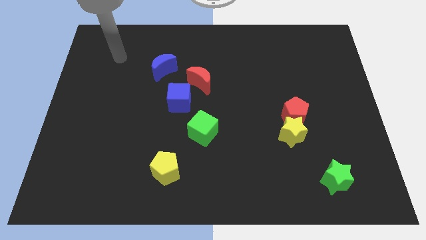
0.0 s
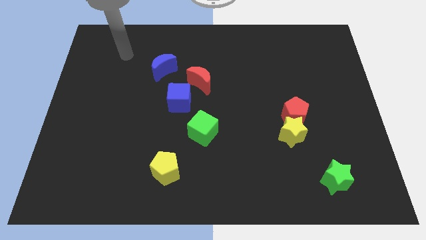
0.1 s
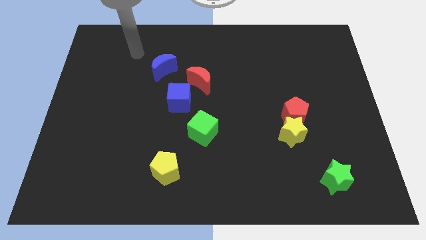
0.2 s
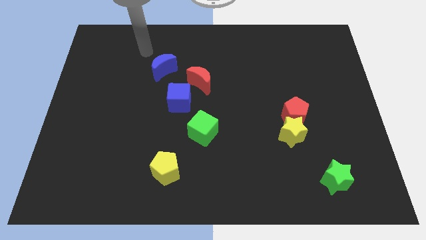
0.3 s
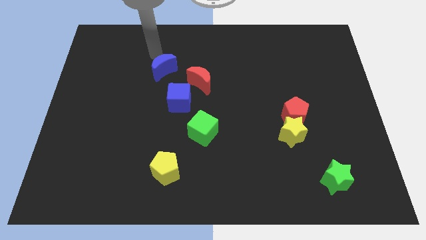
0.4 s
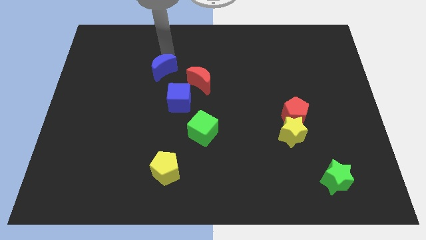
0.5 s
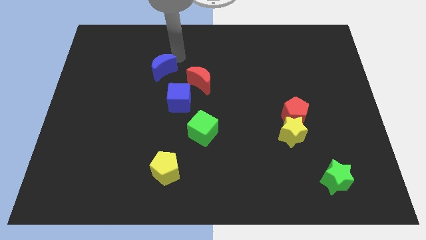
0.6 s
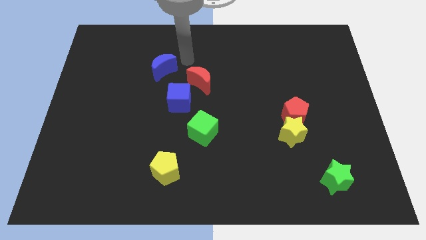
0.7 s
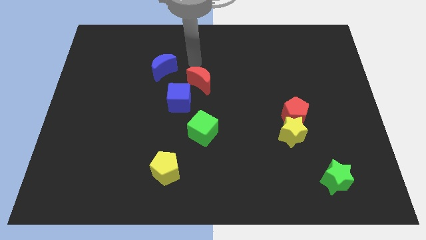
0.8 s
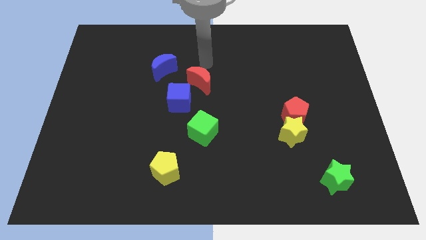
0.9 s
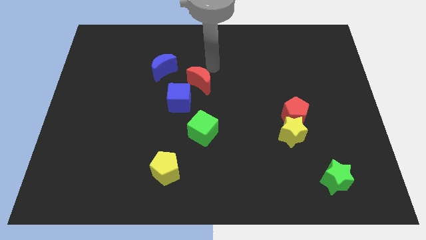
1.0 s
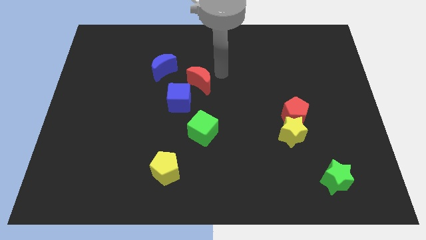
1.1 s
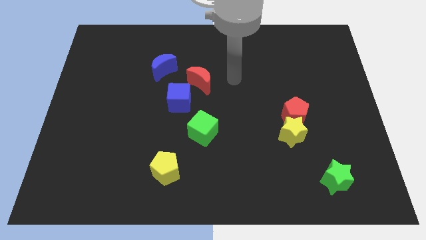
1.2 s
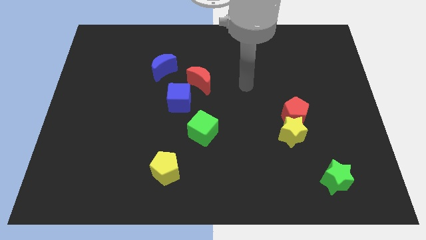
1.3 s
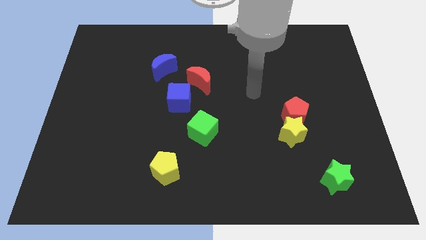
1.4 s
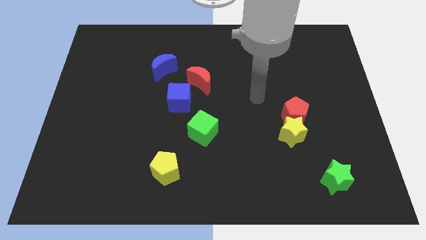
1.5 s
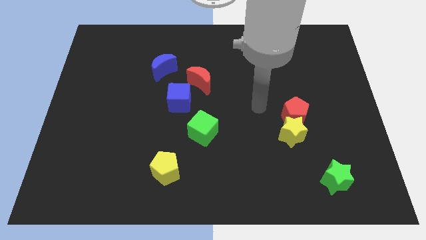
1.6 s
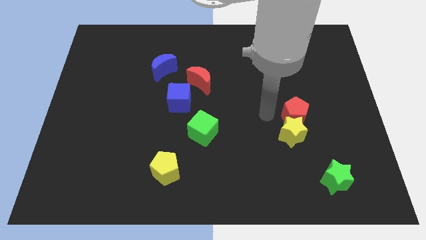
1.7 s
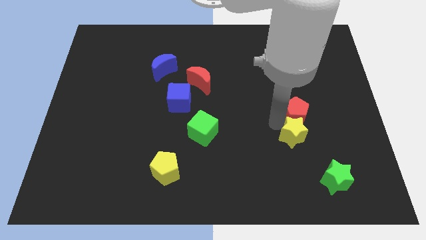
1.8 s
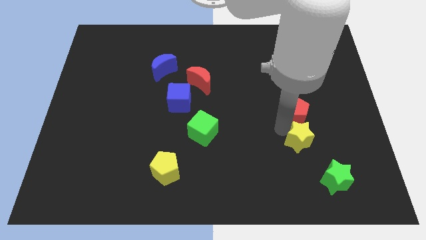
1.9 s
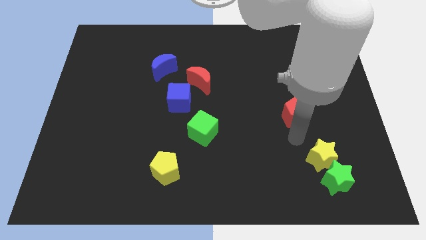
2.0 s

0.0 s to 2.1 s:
move the red pentagon away from the yellow star

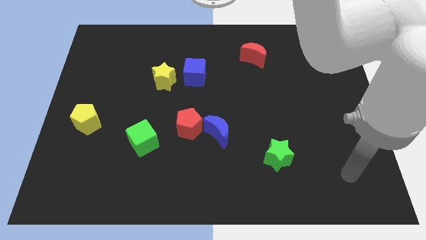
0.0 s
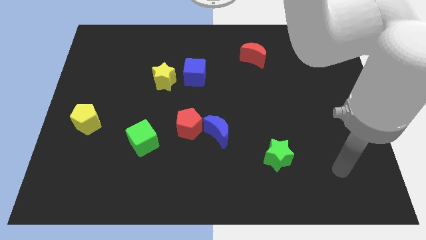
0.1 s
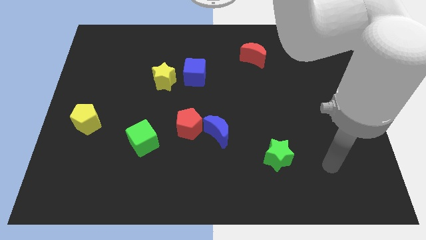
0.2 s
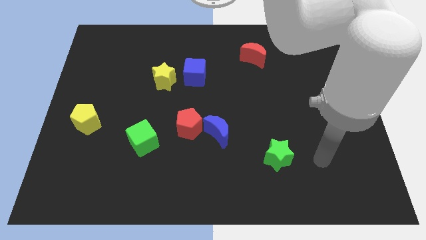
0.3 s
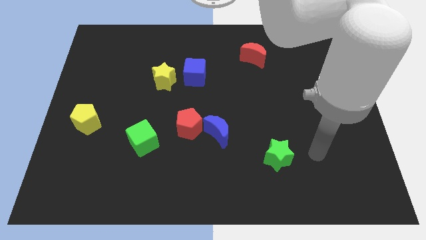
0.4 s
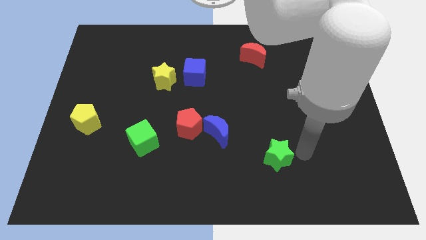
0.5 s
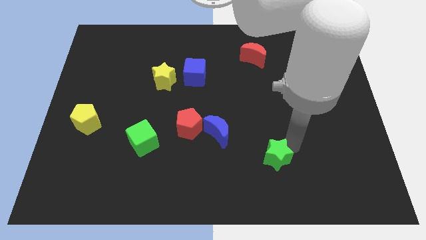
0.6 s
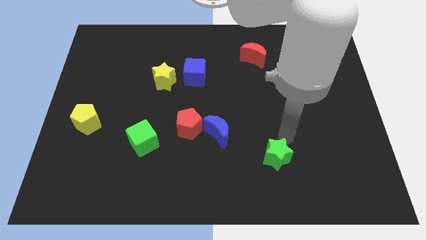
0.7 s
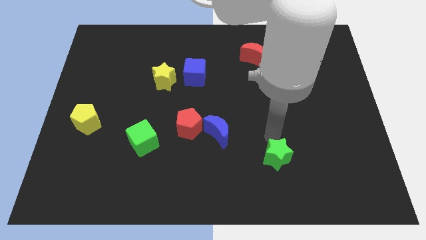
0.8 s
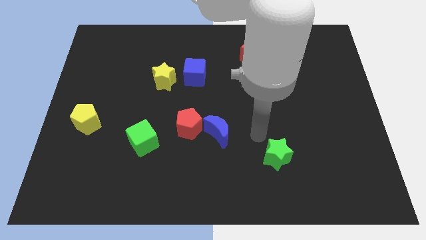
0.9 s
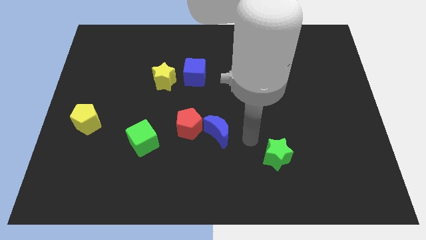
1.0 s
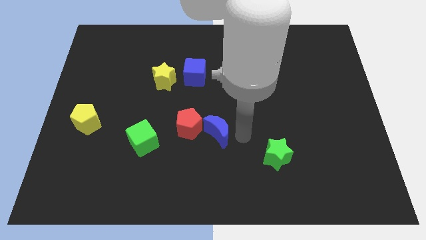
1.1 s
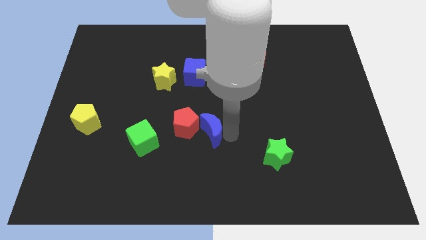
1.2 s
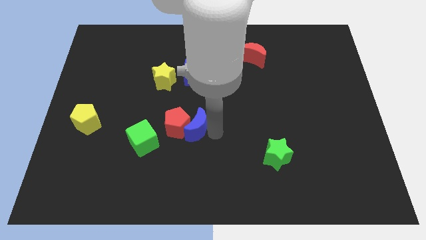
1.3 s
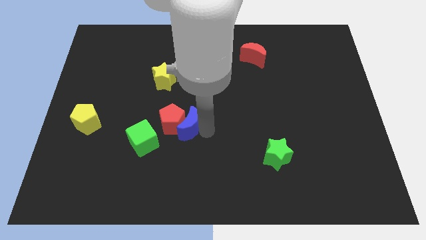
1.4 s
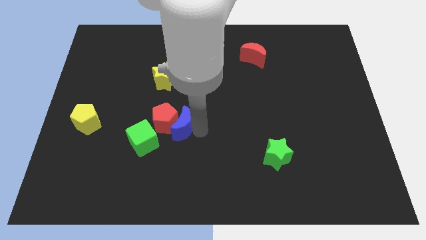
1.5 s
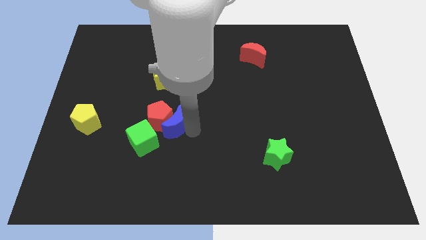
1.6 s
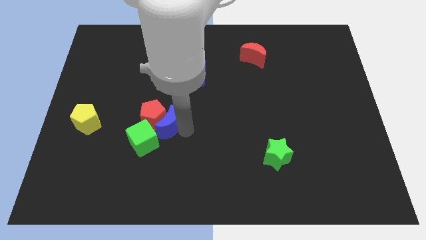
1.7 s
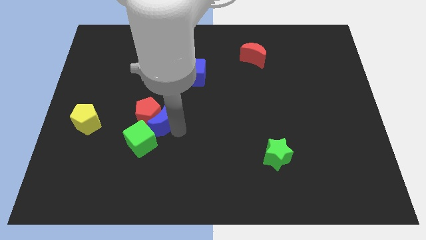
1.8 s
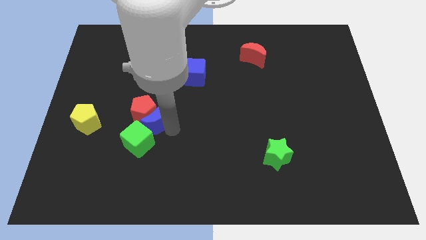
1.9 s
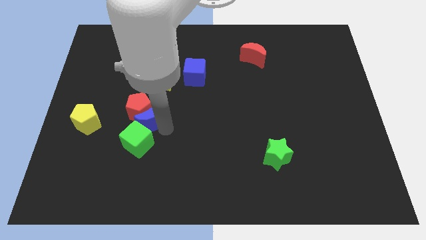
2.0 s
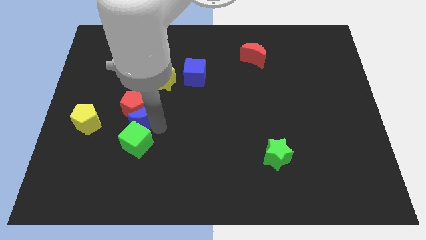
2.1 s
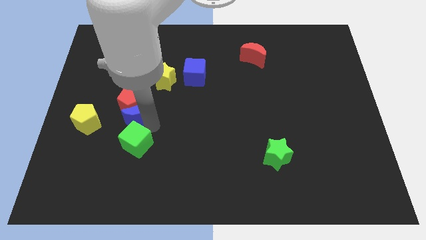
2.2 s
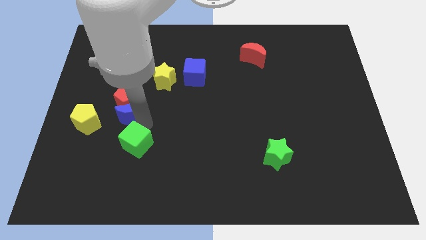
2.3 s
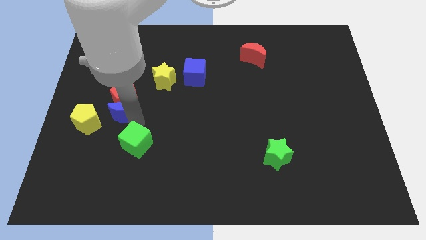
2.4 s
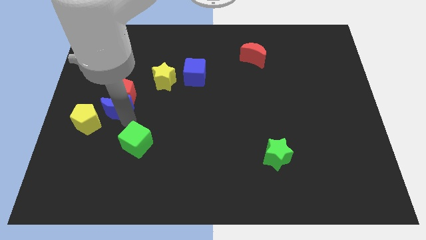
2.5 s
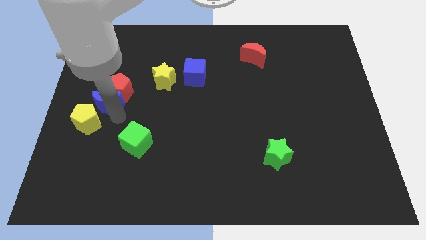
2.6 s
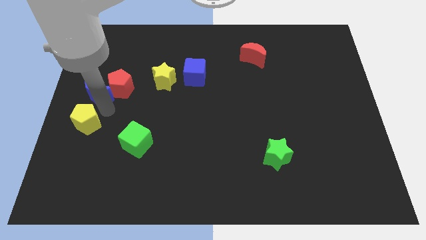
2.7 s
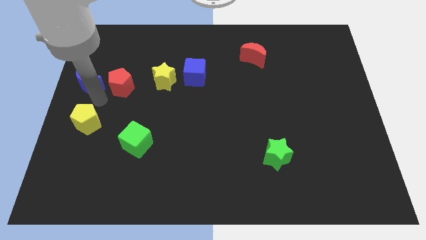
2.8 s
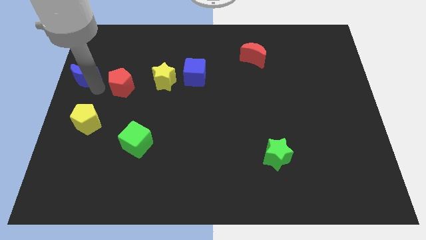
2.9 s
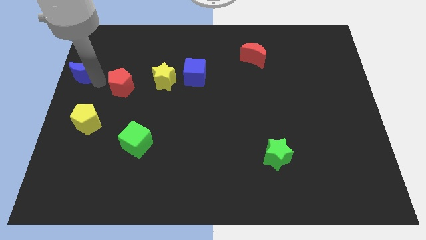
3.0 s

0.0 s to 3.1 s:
pull the red pentagon apart from the blue moon

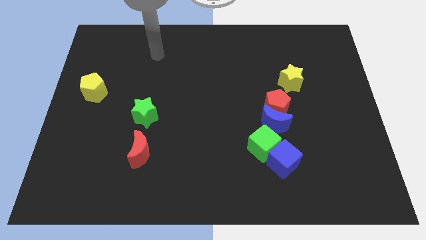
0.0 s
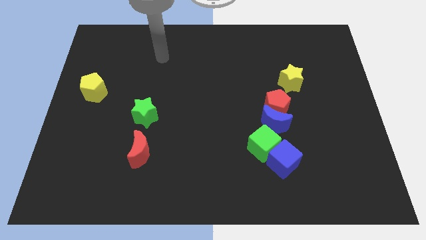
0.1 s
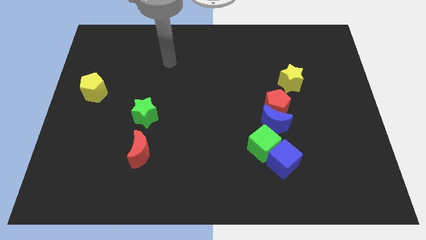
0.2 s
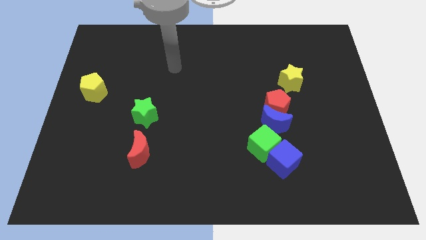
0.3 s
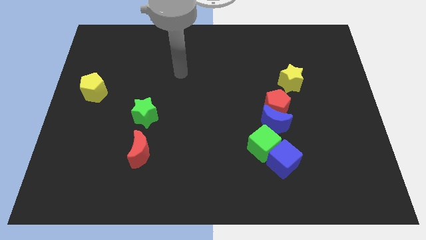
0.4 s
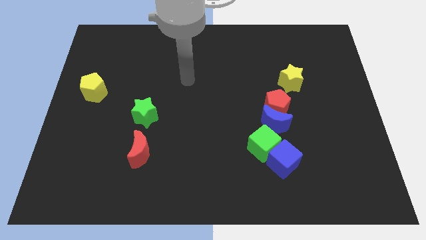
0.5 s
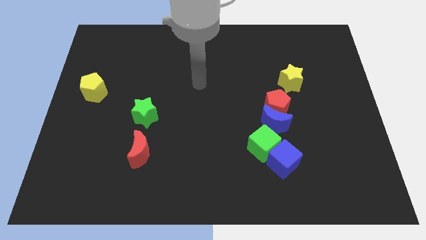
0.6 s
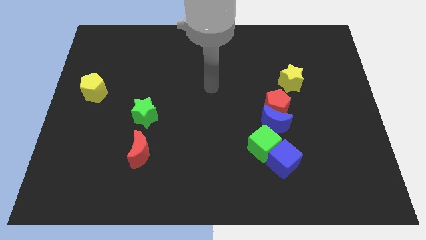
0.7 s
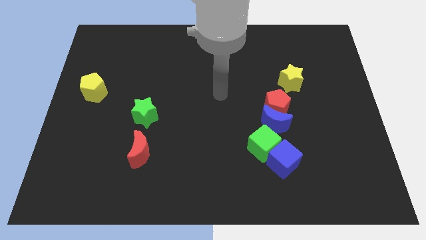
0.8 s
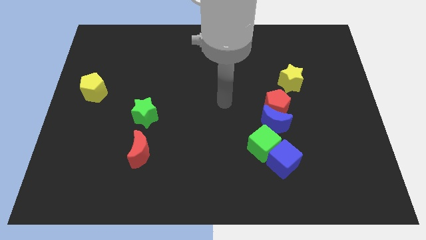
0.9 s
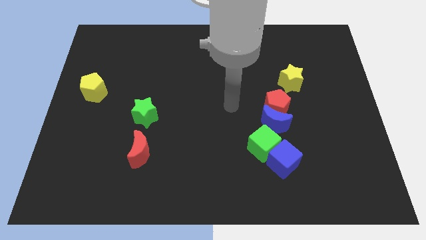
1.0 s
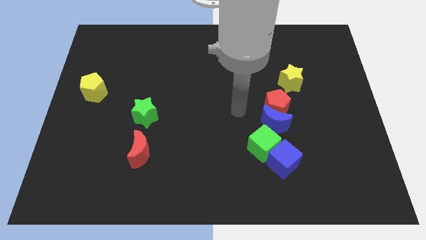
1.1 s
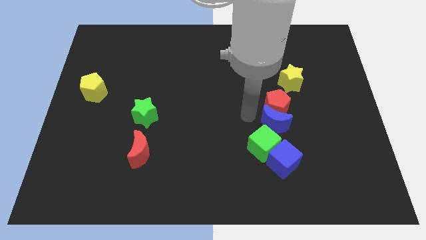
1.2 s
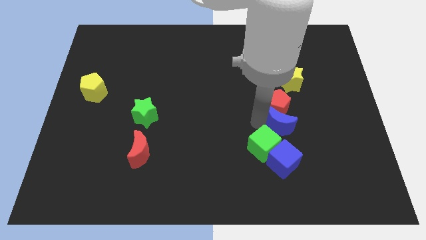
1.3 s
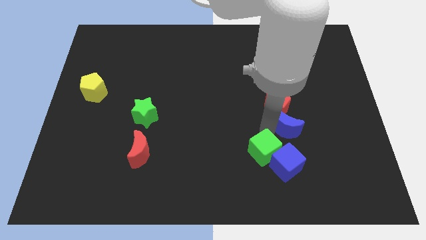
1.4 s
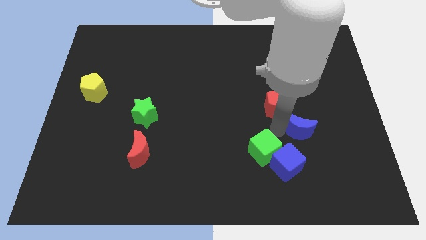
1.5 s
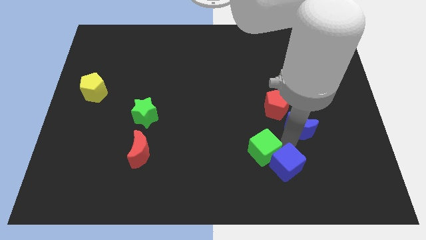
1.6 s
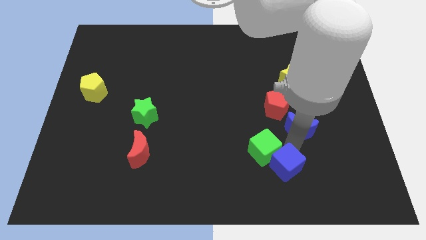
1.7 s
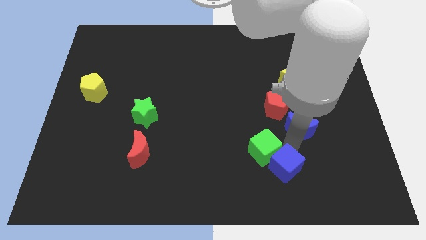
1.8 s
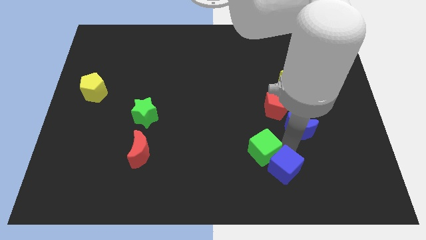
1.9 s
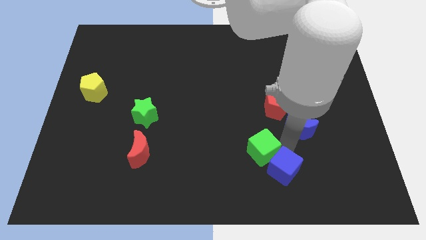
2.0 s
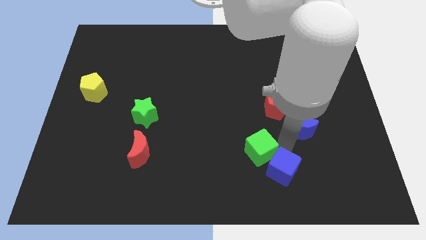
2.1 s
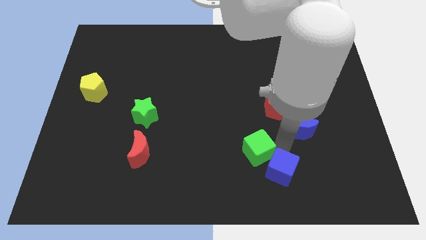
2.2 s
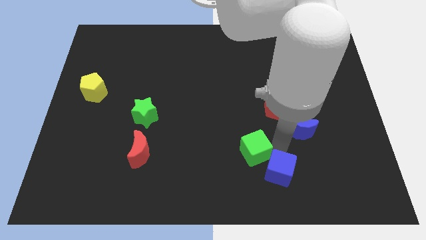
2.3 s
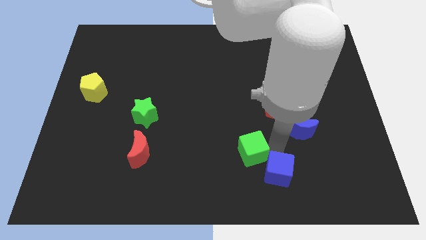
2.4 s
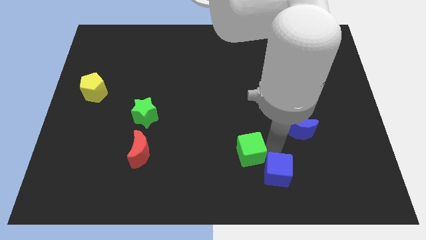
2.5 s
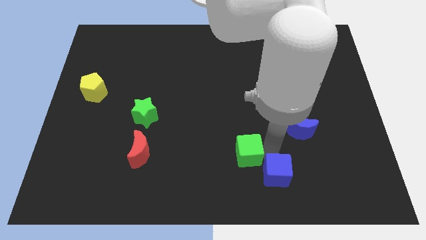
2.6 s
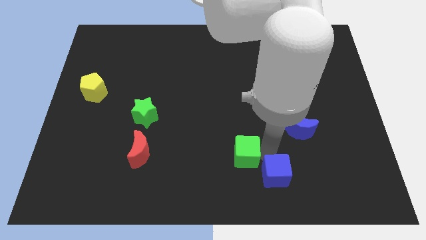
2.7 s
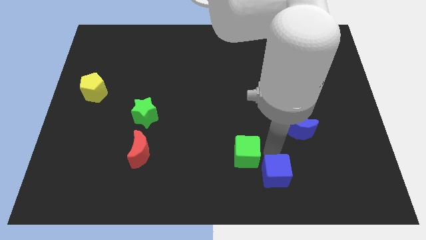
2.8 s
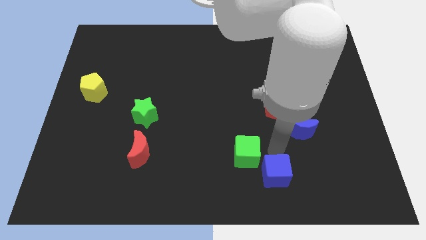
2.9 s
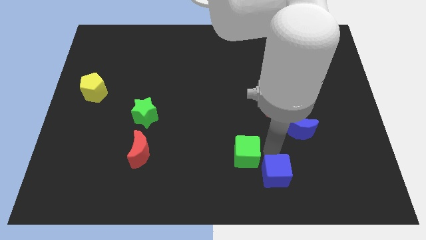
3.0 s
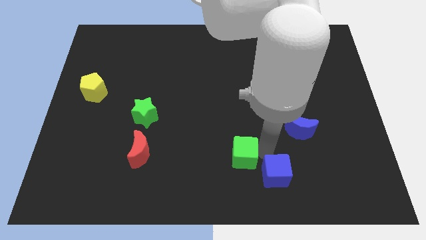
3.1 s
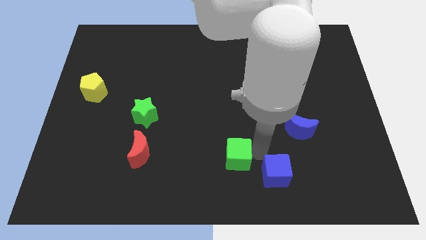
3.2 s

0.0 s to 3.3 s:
move the green cube away from the blue cube and blue moon

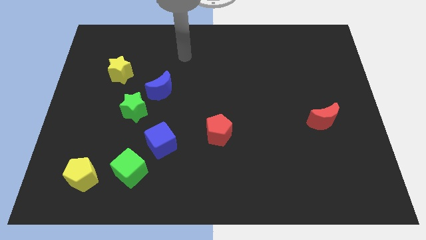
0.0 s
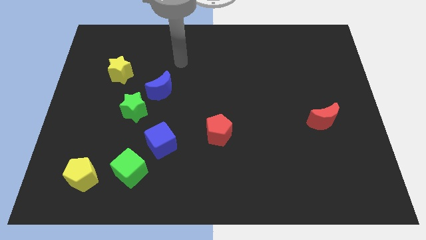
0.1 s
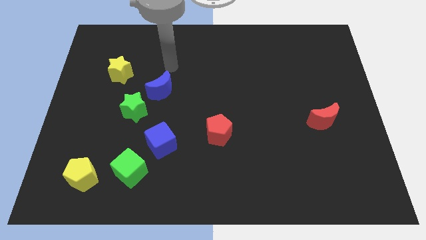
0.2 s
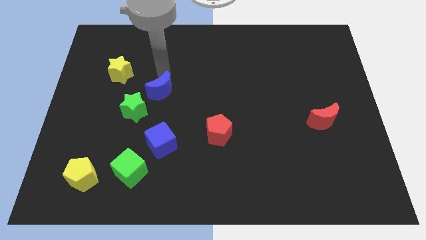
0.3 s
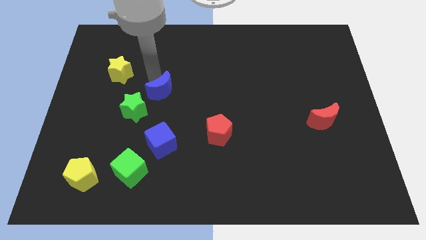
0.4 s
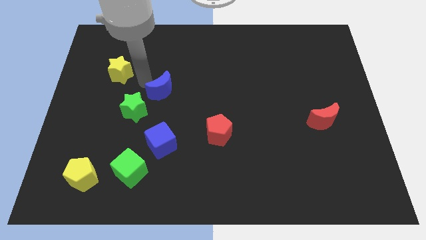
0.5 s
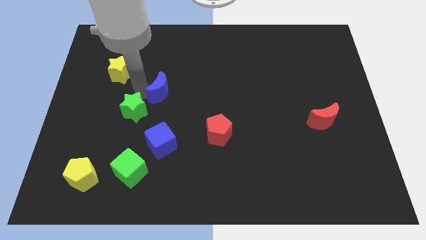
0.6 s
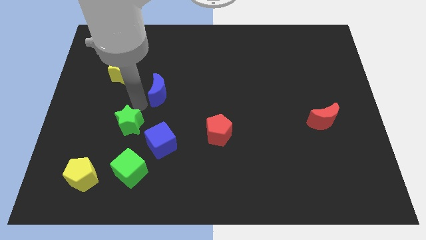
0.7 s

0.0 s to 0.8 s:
move the blue moon away from the green star
